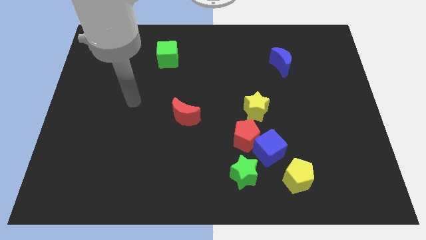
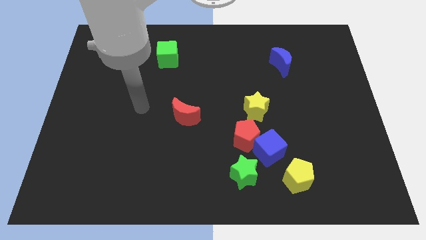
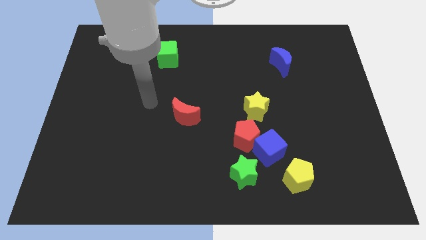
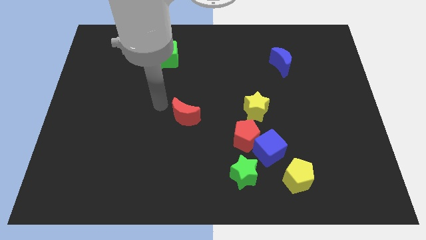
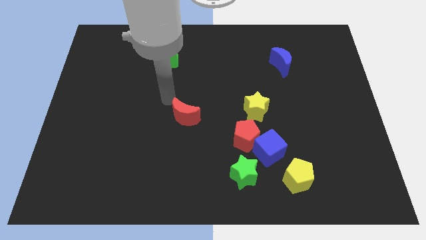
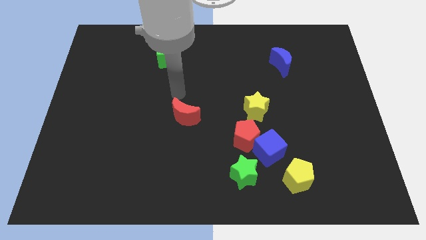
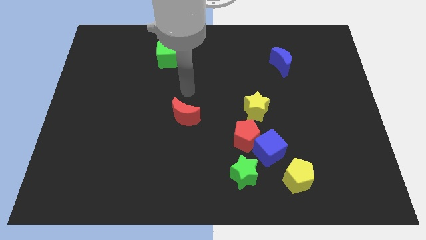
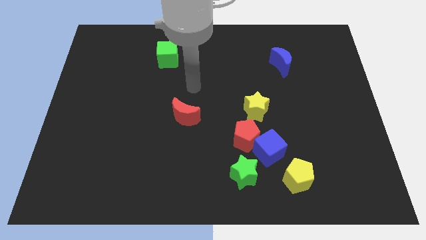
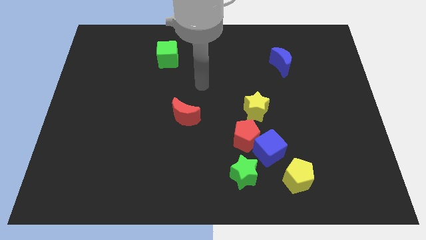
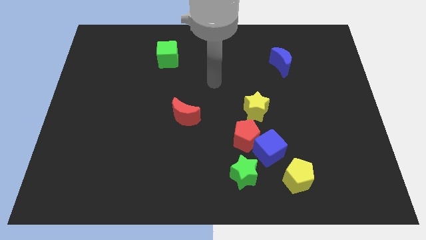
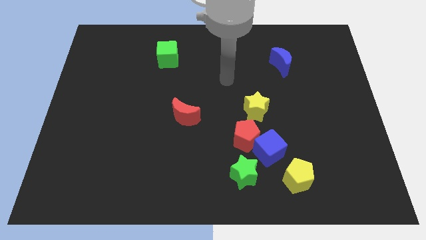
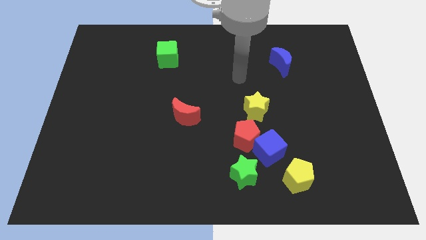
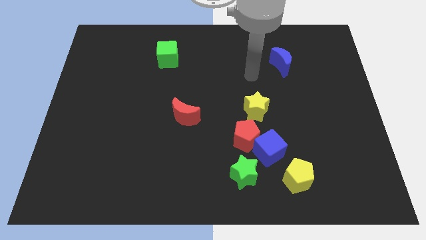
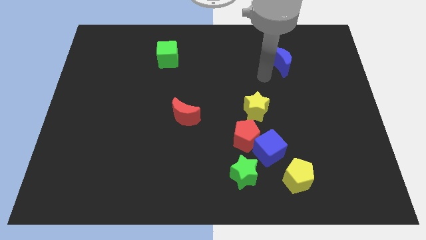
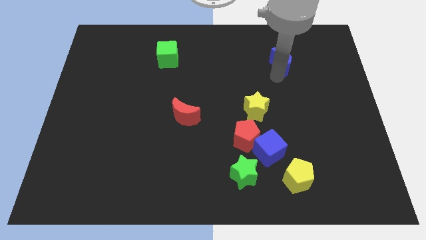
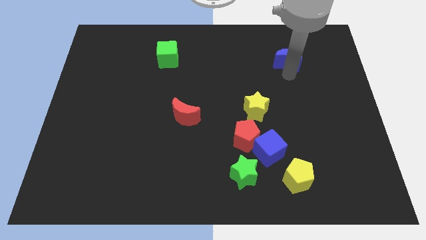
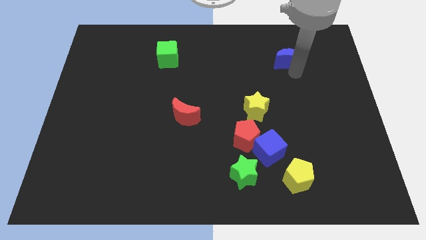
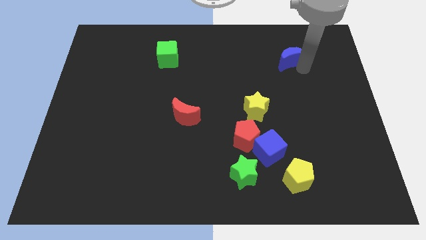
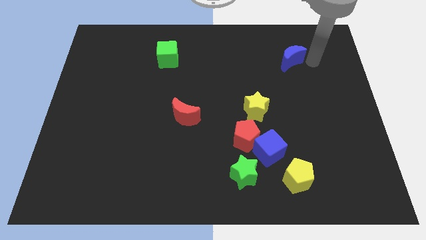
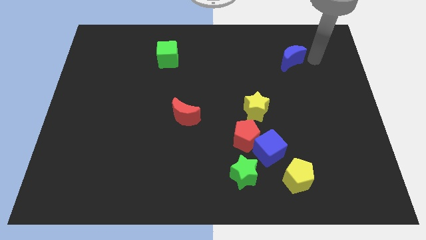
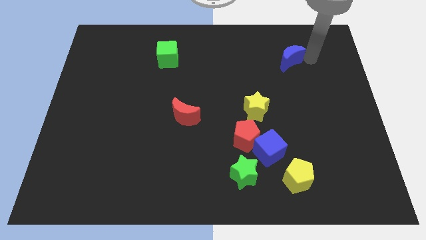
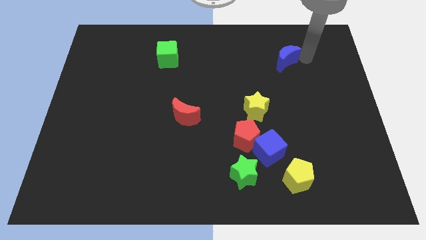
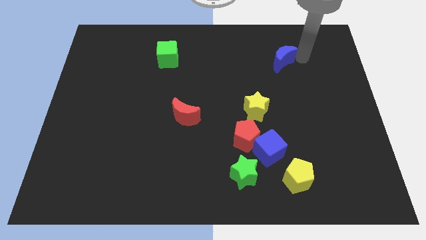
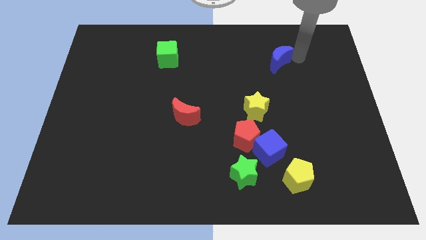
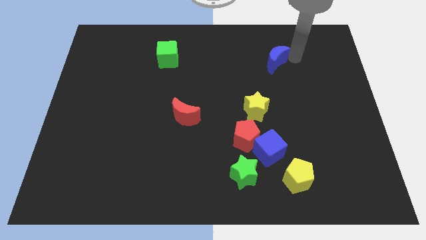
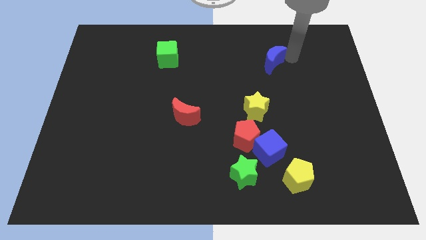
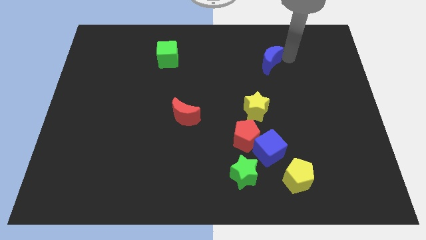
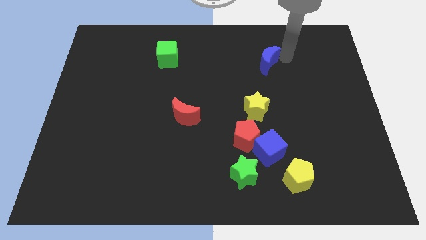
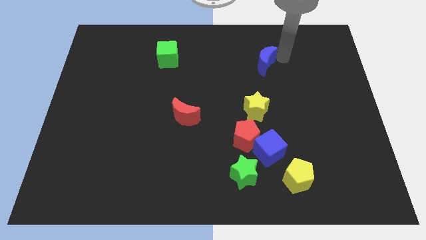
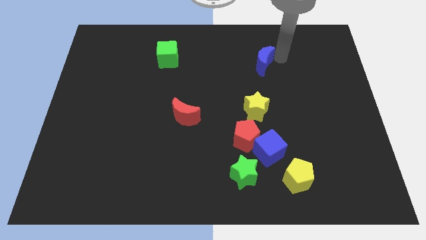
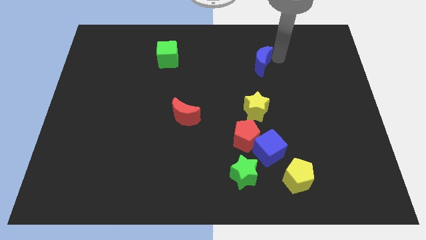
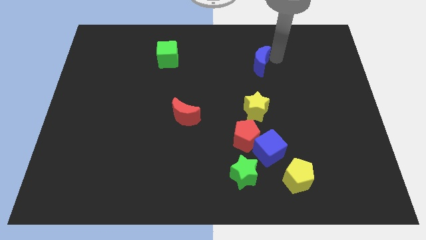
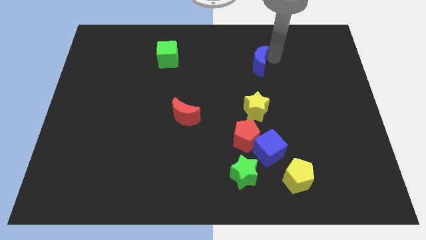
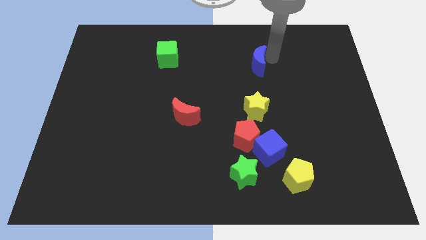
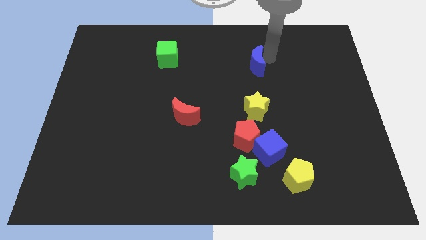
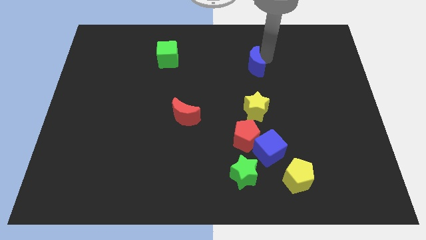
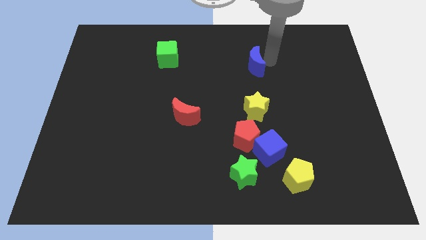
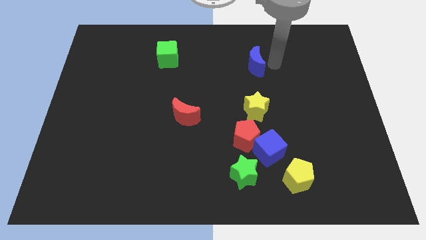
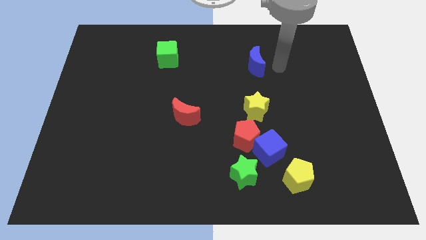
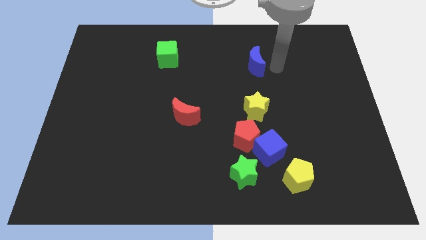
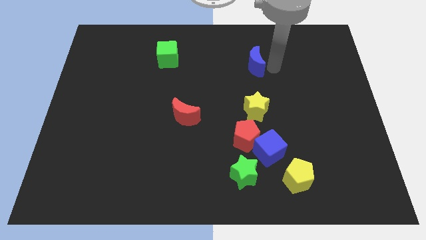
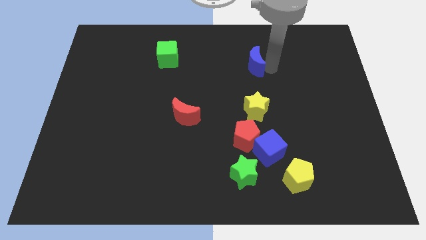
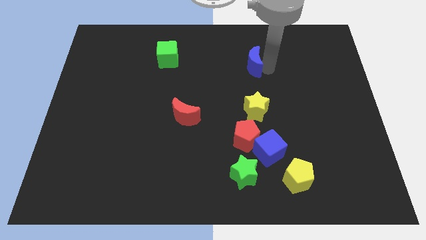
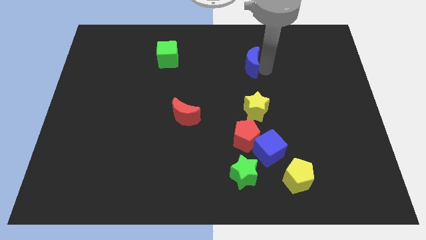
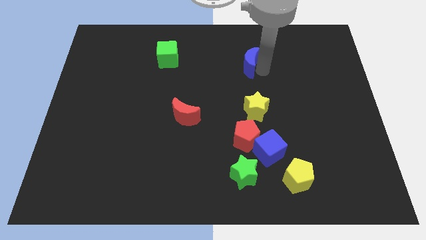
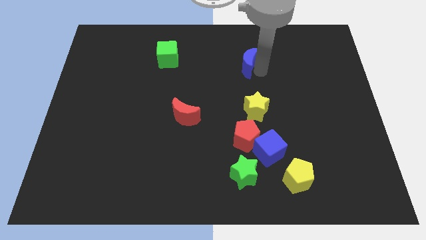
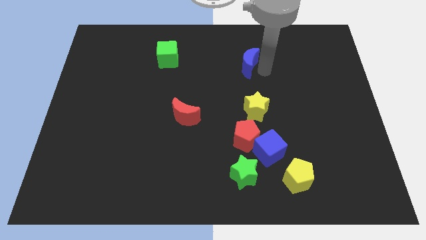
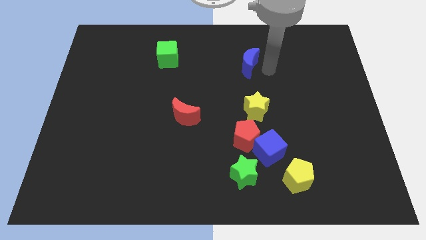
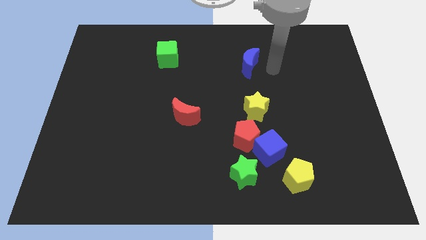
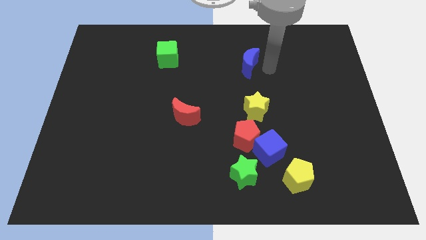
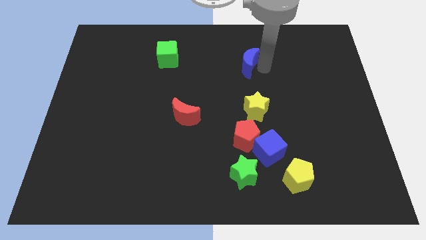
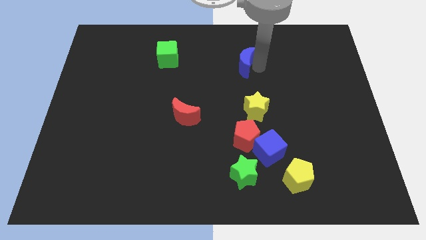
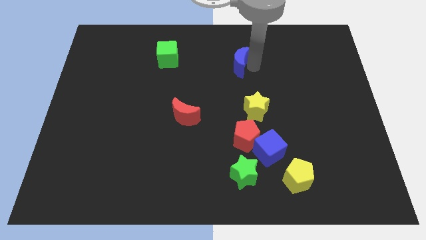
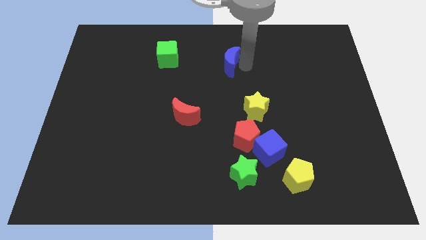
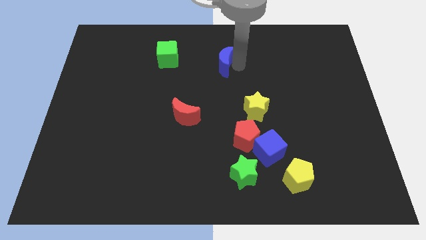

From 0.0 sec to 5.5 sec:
slide the blue moon to the right side of the green cube

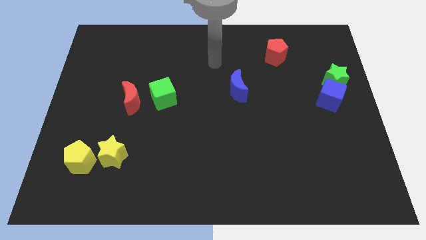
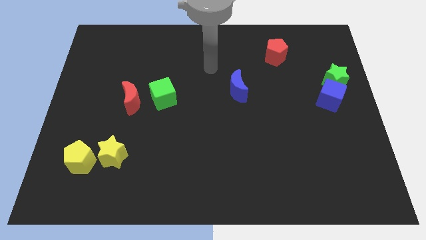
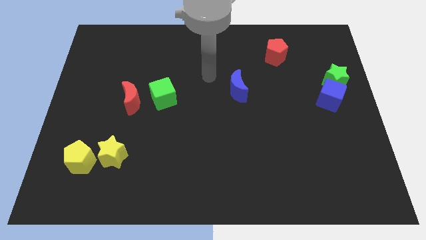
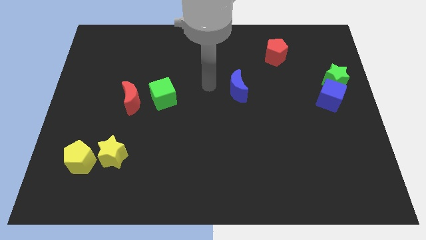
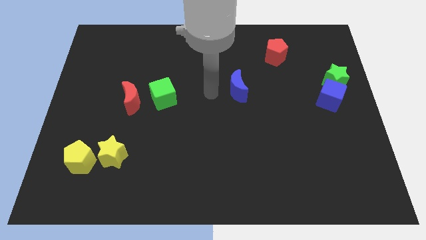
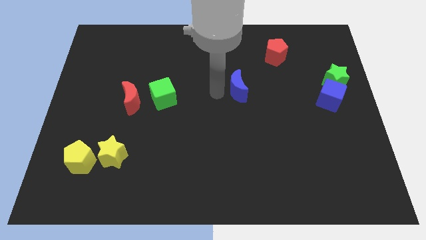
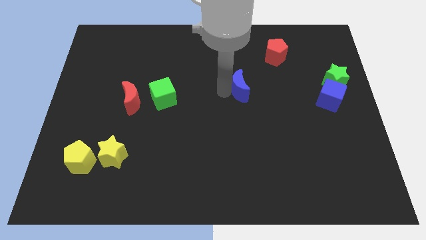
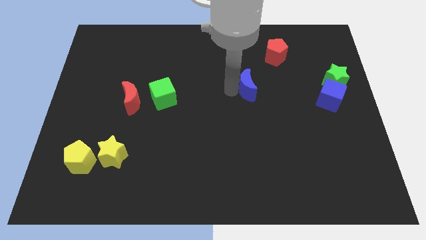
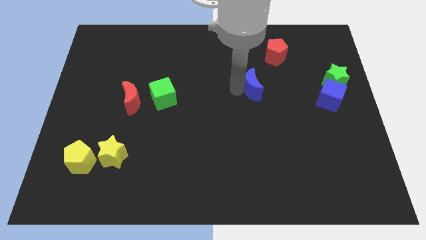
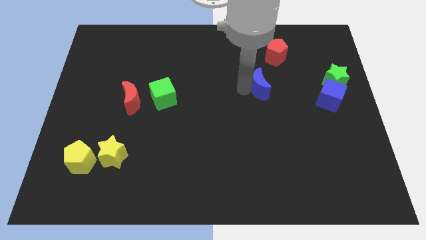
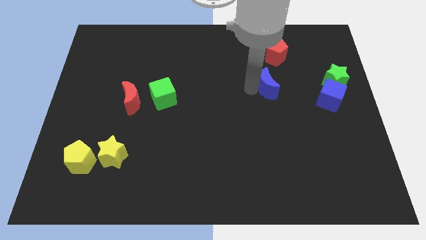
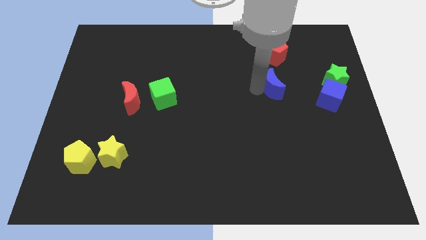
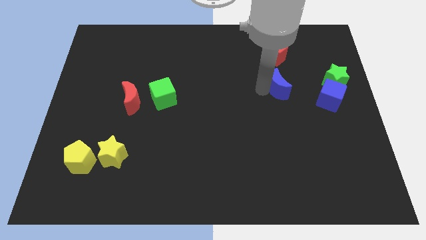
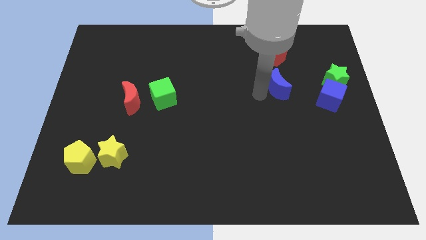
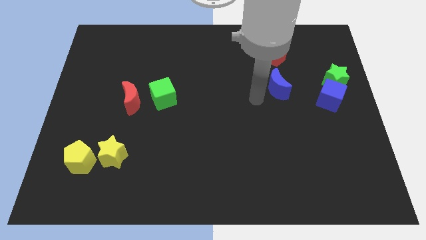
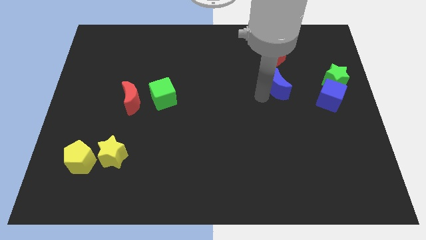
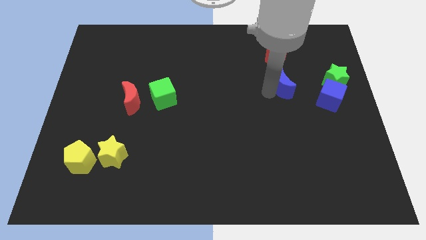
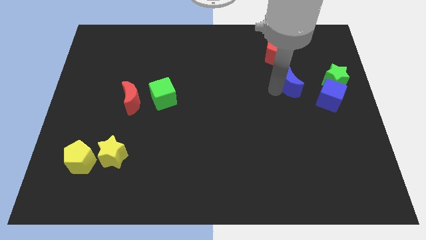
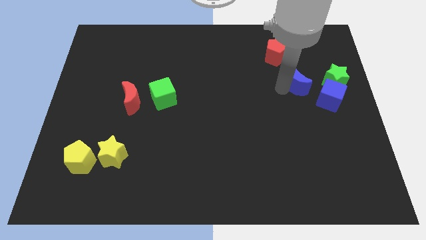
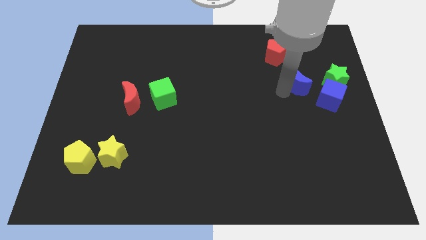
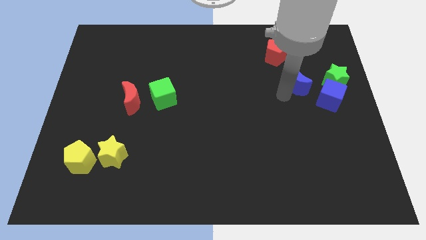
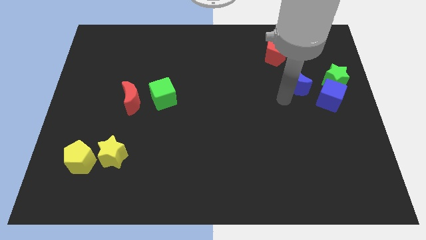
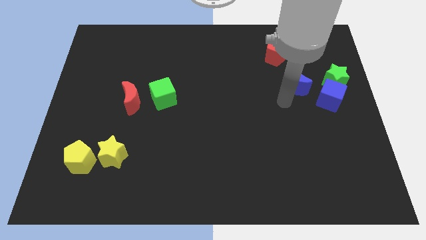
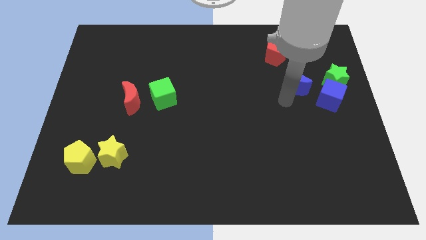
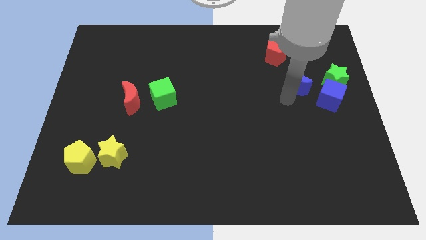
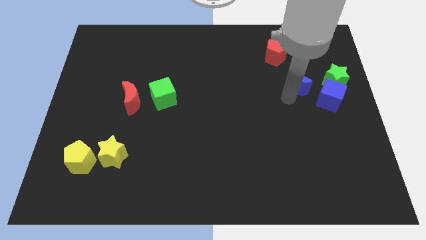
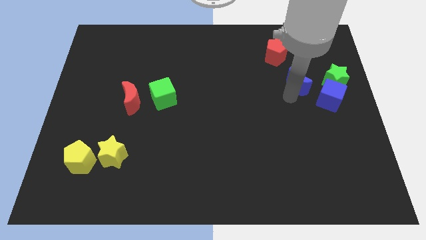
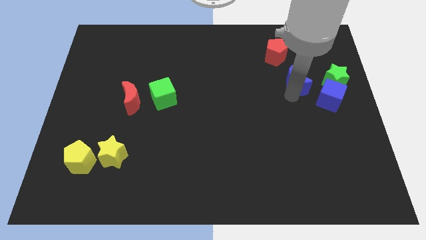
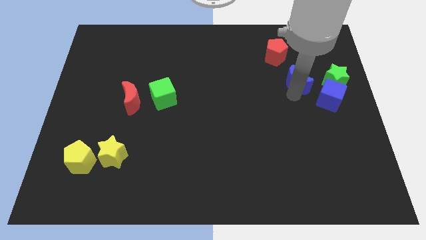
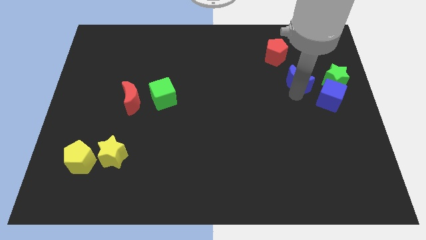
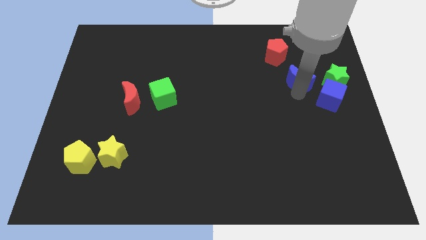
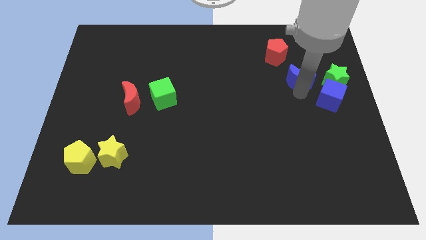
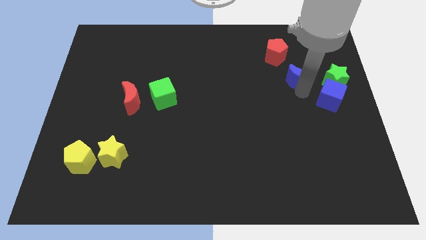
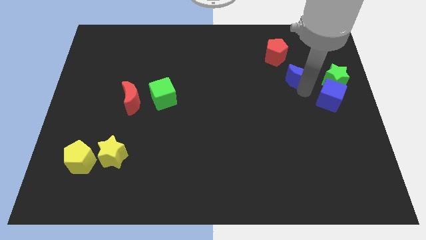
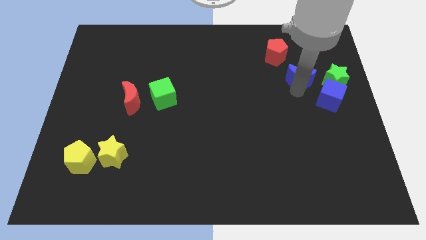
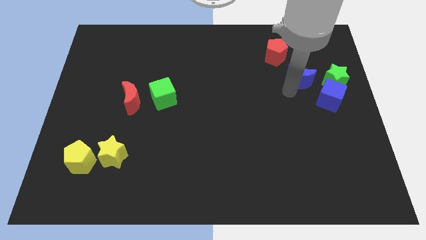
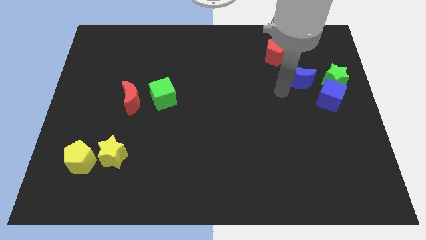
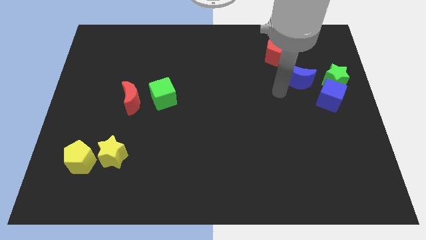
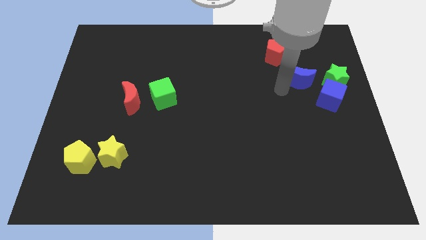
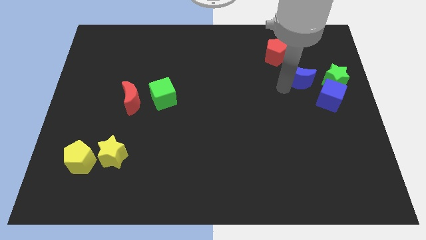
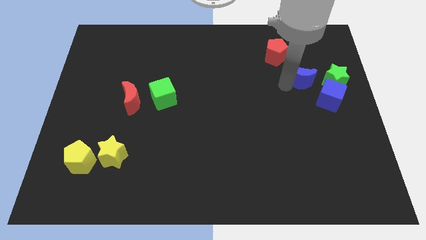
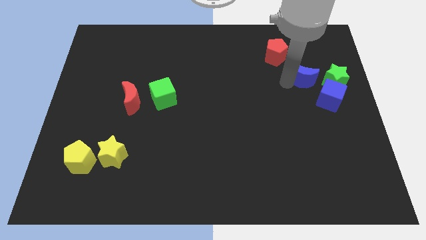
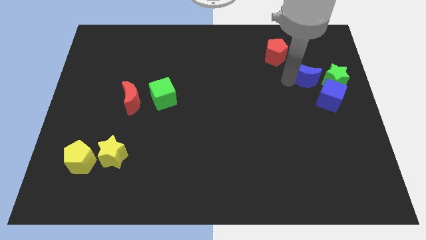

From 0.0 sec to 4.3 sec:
slide the blue moon above the blue cube
